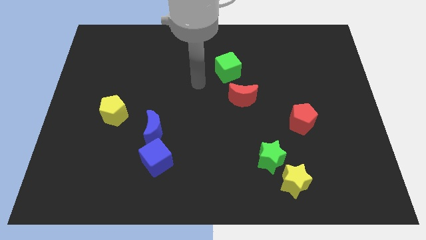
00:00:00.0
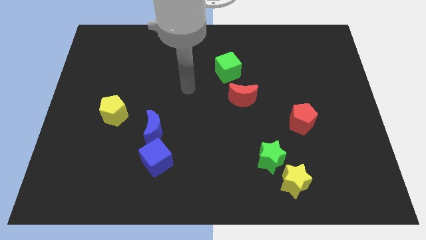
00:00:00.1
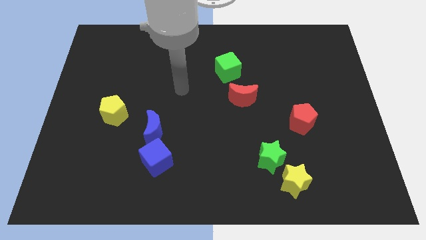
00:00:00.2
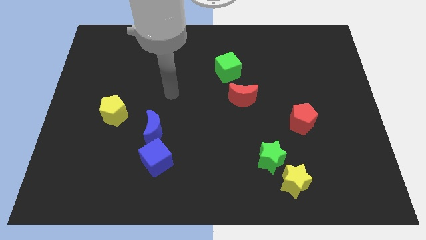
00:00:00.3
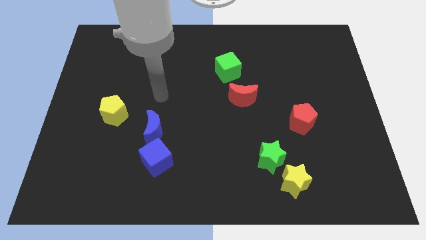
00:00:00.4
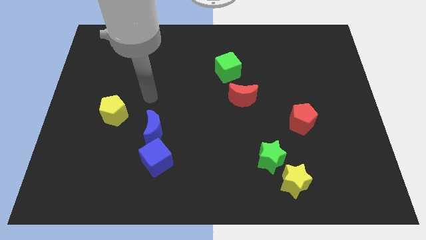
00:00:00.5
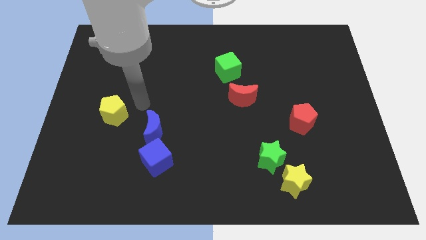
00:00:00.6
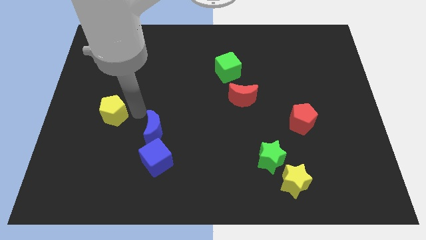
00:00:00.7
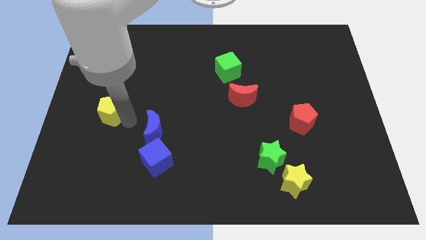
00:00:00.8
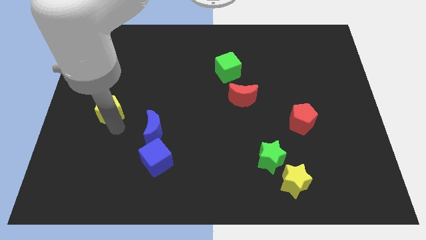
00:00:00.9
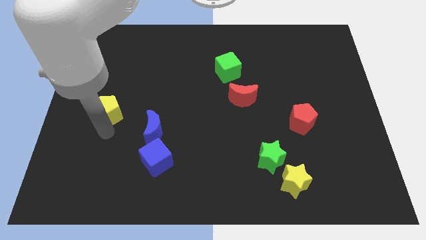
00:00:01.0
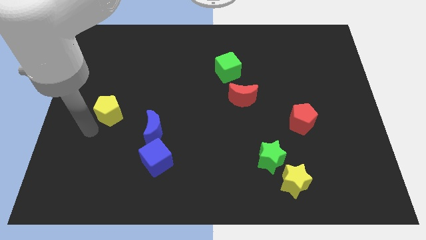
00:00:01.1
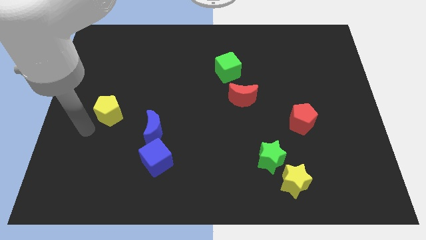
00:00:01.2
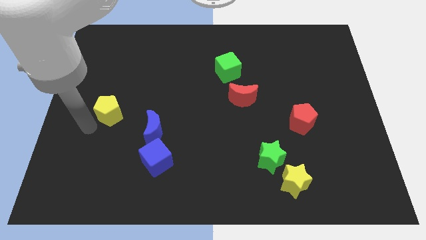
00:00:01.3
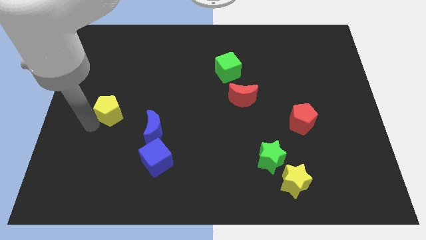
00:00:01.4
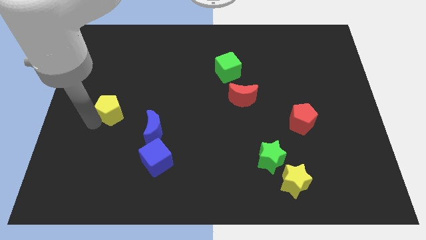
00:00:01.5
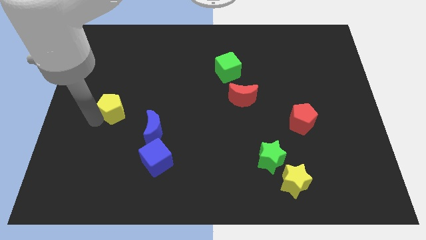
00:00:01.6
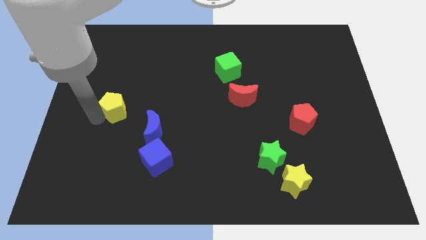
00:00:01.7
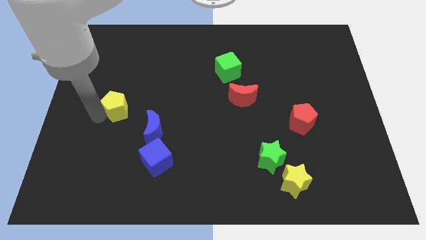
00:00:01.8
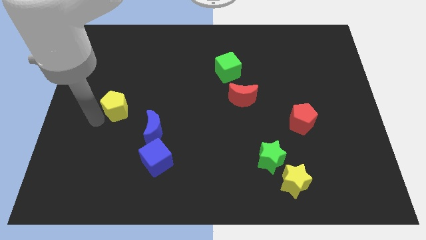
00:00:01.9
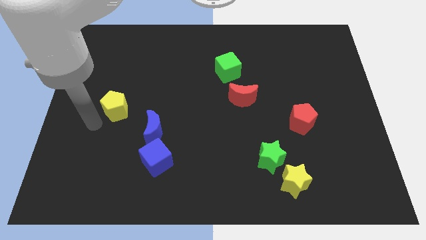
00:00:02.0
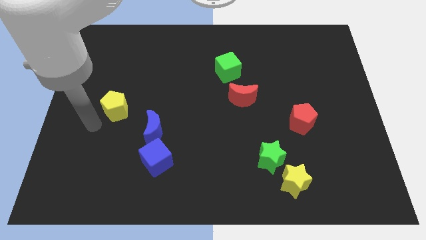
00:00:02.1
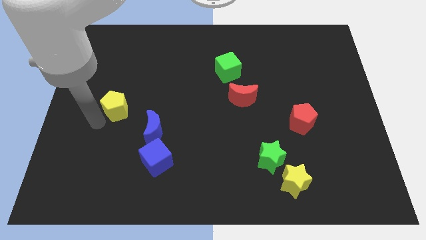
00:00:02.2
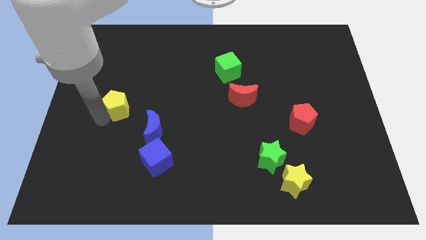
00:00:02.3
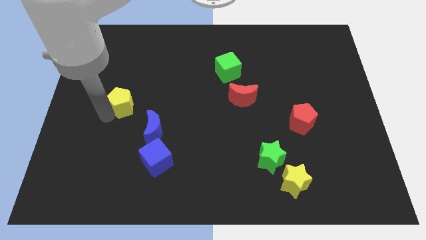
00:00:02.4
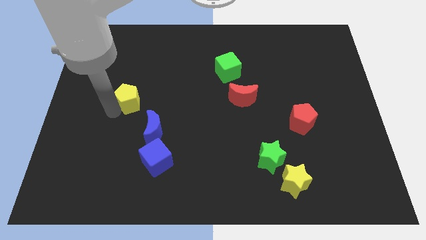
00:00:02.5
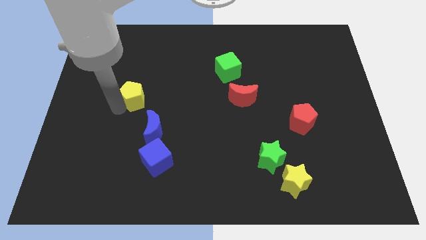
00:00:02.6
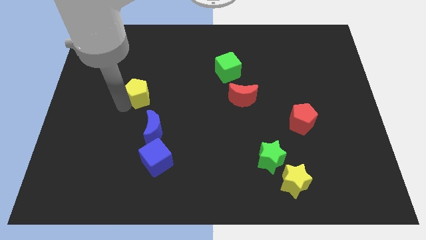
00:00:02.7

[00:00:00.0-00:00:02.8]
slightly move the yellow pentagon upwards and right diagonally

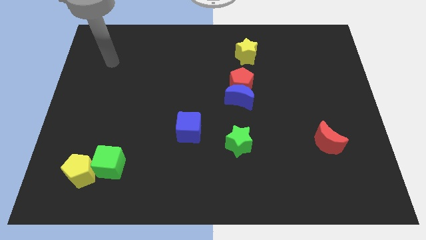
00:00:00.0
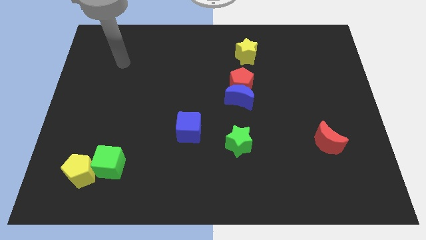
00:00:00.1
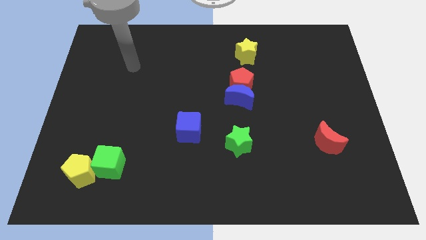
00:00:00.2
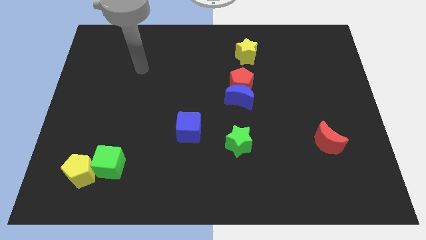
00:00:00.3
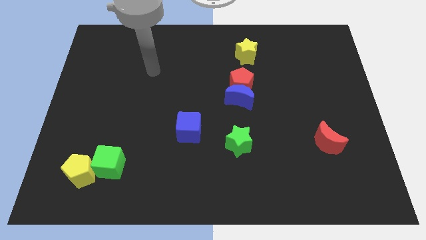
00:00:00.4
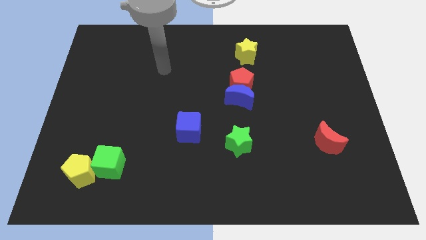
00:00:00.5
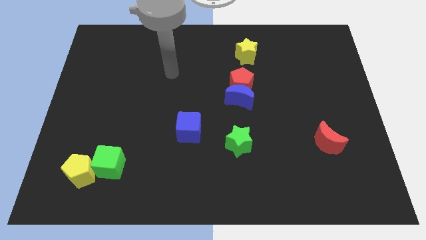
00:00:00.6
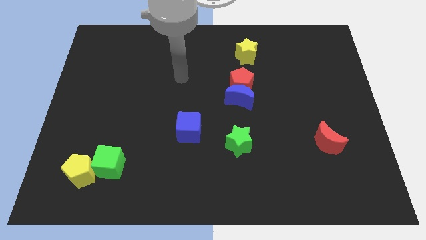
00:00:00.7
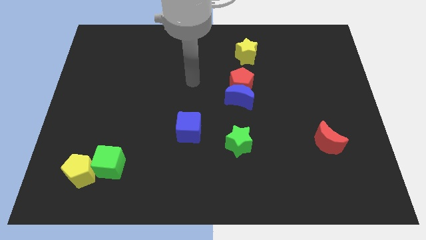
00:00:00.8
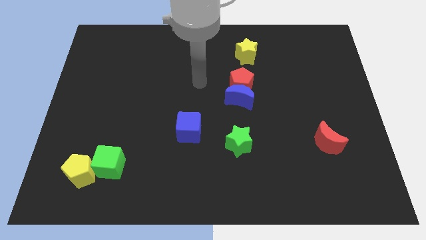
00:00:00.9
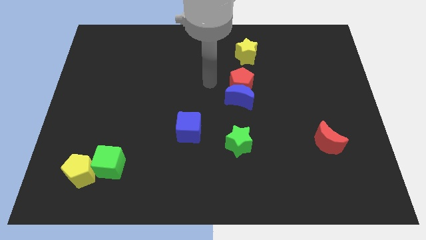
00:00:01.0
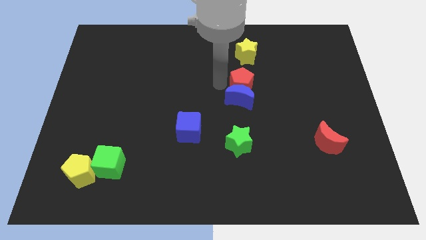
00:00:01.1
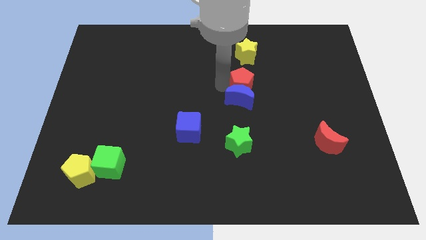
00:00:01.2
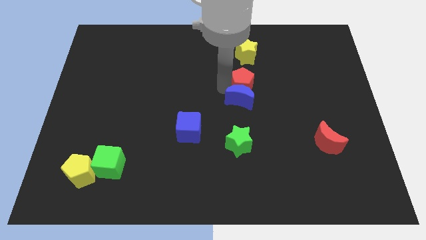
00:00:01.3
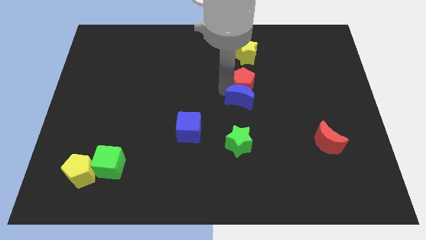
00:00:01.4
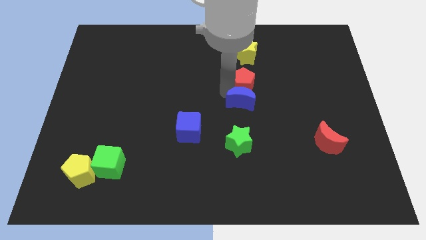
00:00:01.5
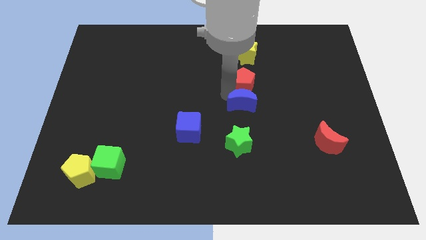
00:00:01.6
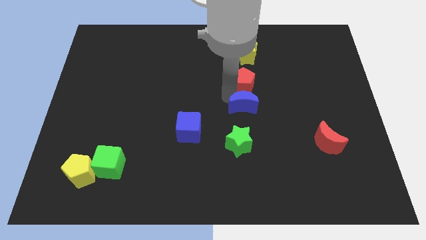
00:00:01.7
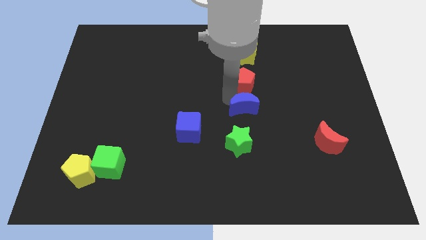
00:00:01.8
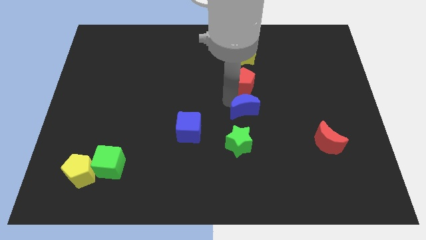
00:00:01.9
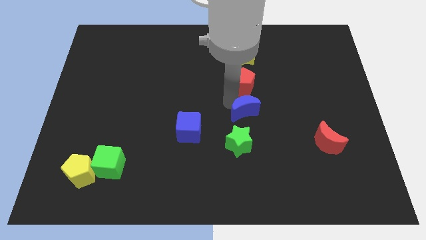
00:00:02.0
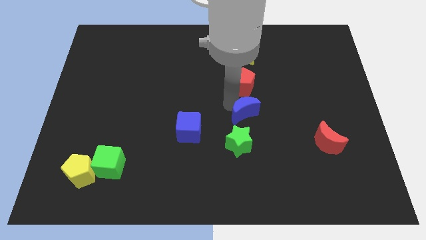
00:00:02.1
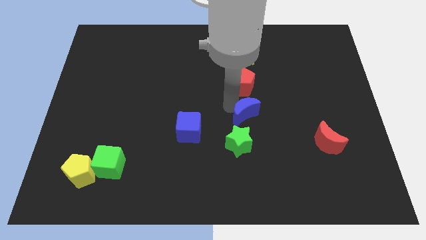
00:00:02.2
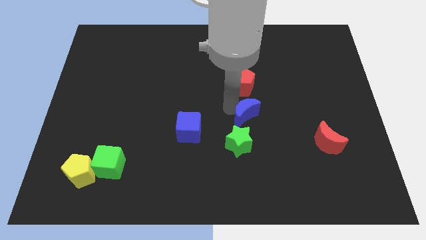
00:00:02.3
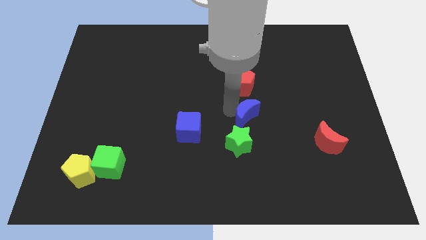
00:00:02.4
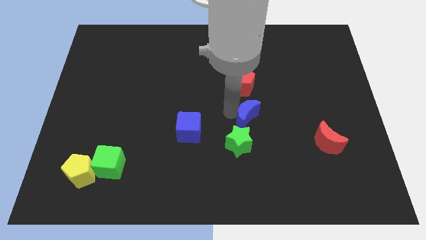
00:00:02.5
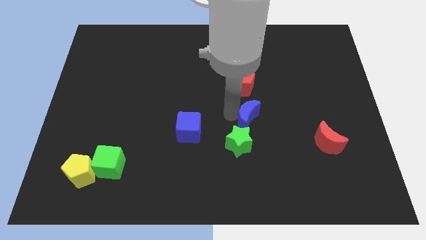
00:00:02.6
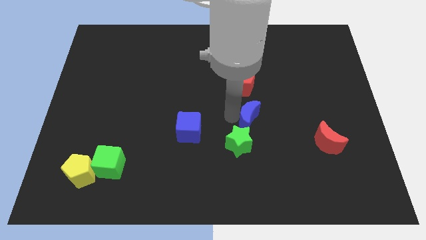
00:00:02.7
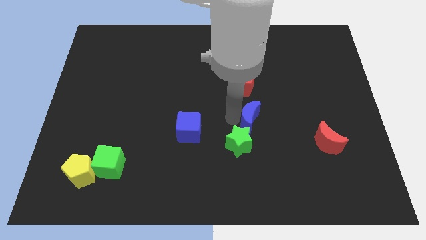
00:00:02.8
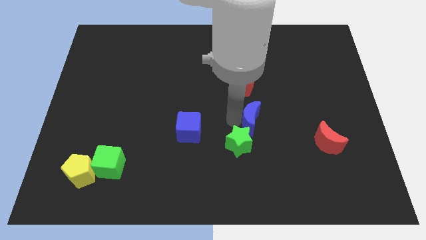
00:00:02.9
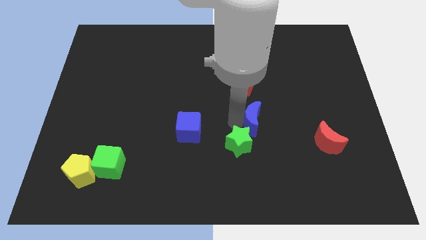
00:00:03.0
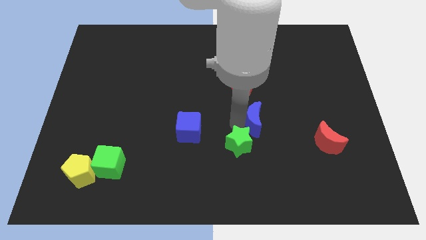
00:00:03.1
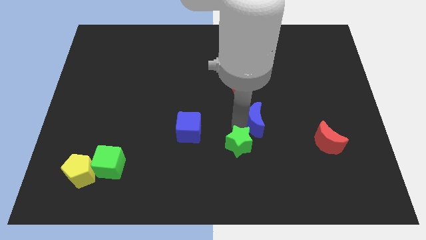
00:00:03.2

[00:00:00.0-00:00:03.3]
slide the blue moon slightly down and to the right

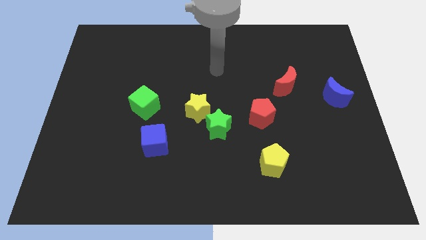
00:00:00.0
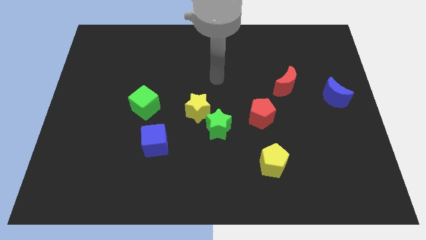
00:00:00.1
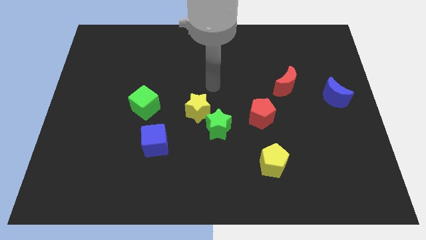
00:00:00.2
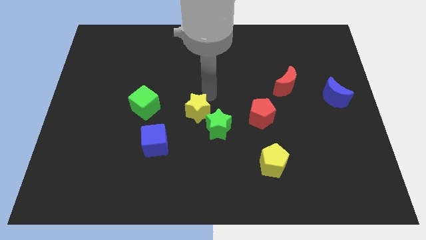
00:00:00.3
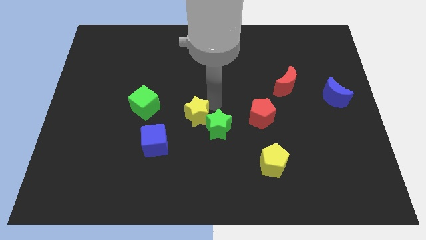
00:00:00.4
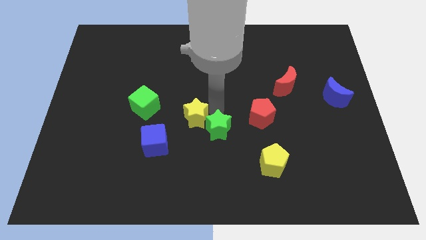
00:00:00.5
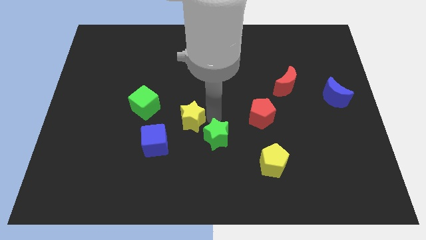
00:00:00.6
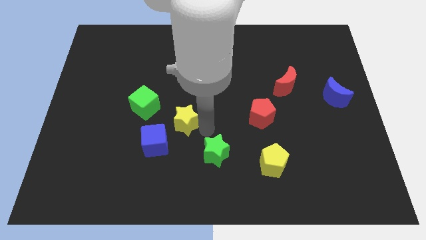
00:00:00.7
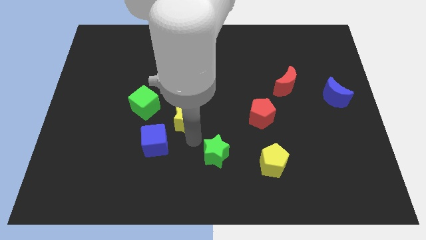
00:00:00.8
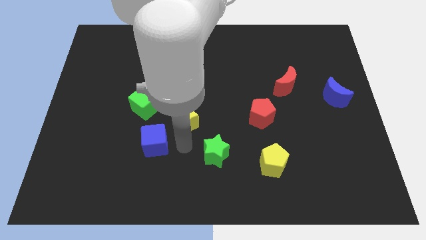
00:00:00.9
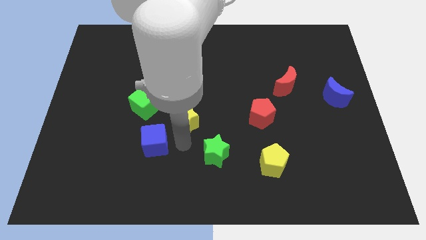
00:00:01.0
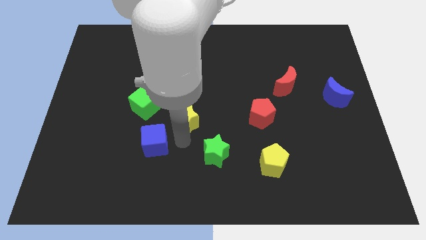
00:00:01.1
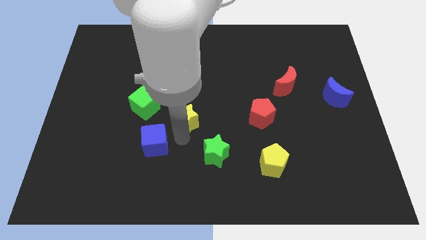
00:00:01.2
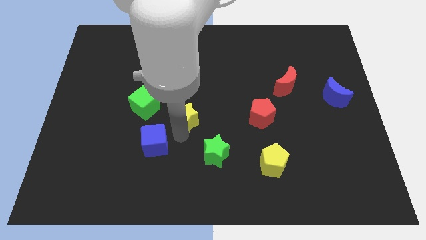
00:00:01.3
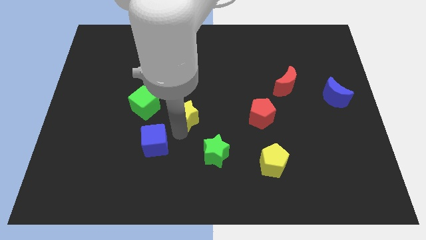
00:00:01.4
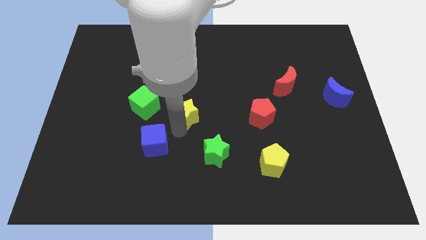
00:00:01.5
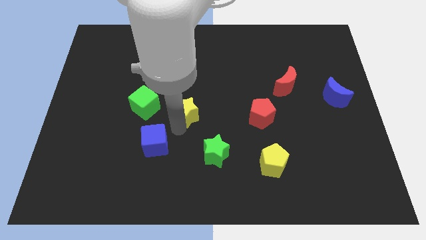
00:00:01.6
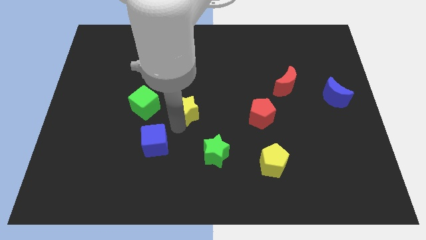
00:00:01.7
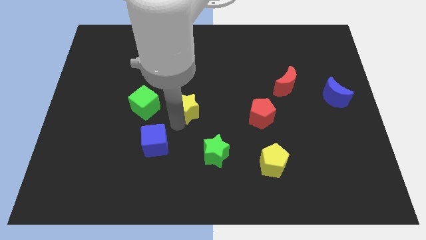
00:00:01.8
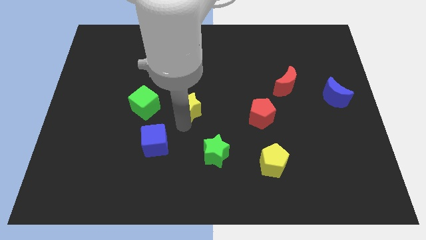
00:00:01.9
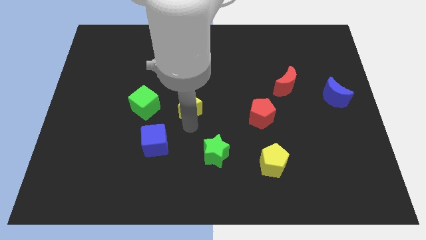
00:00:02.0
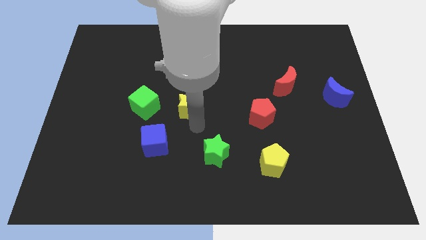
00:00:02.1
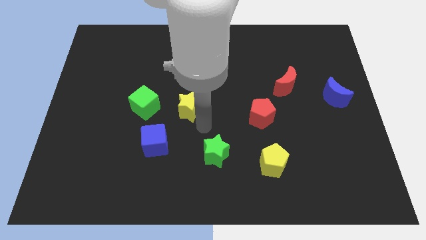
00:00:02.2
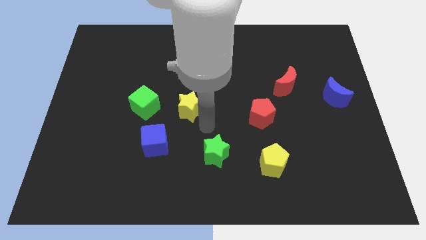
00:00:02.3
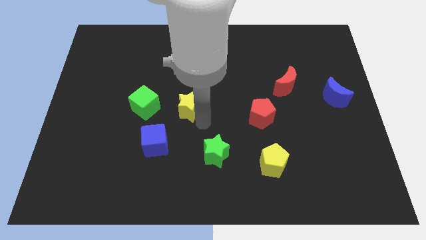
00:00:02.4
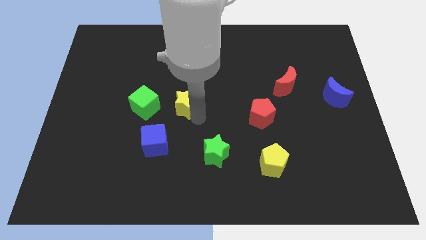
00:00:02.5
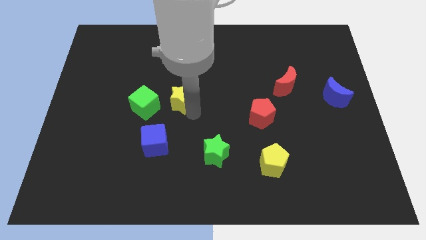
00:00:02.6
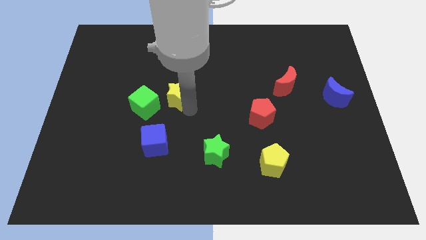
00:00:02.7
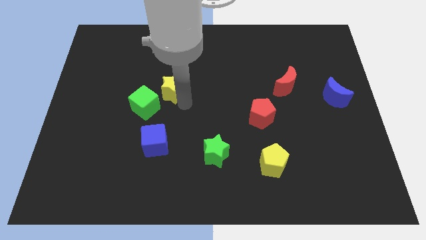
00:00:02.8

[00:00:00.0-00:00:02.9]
slide the yellow star a bit diagonally up and left
